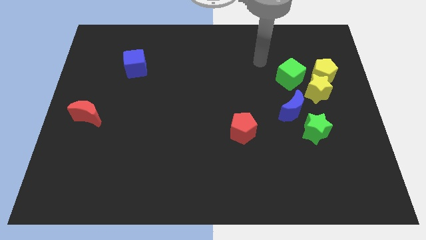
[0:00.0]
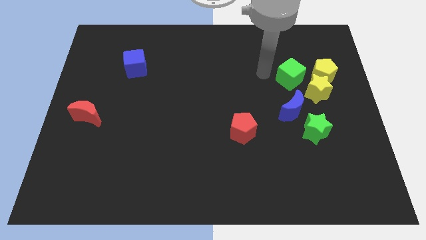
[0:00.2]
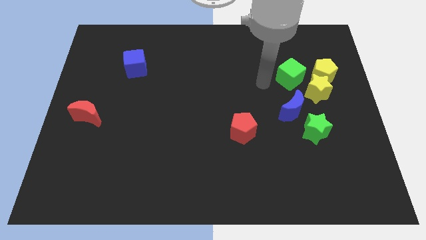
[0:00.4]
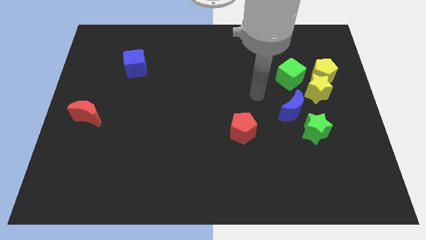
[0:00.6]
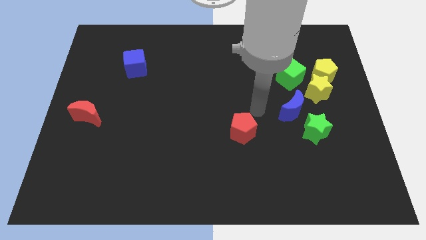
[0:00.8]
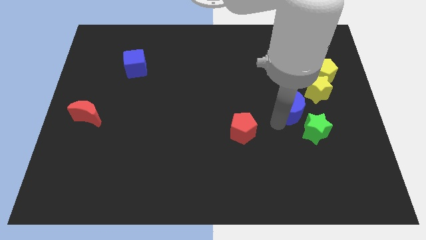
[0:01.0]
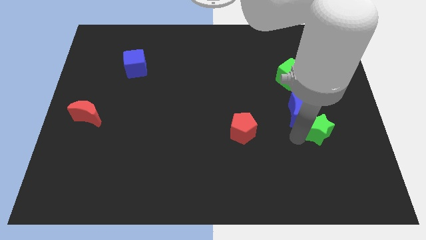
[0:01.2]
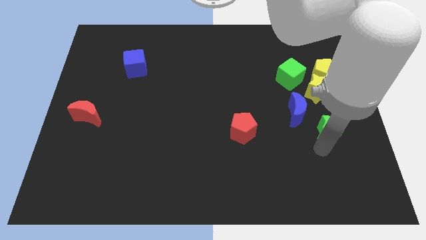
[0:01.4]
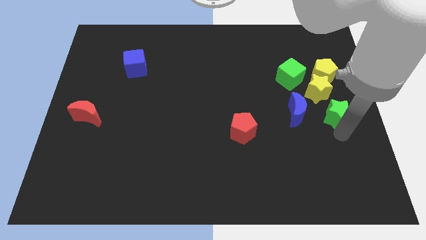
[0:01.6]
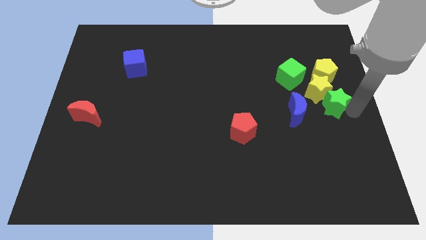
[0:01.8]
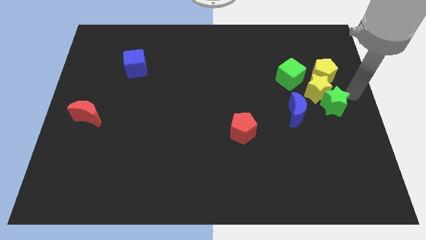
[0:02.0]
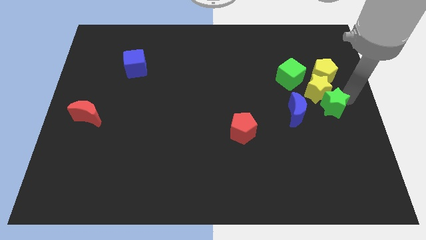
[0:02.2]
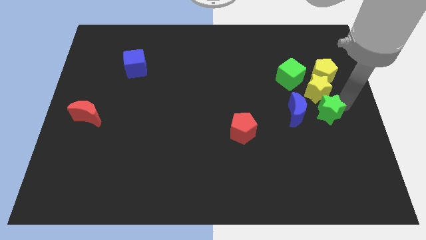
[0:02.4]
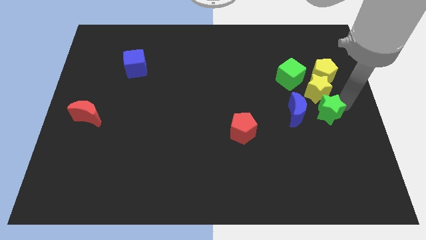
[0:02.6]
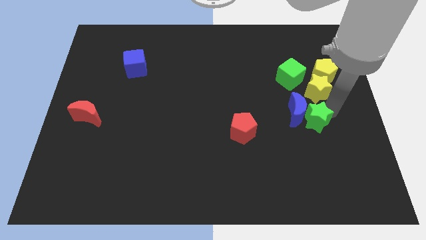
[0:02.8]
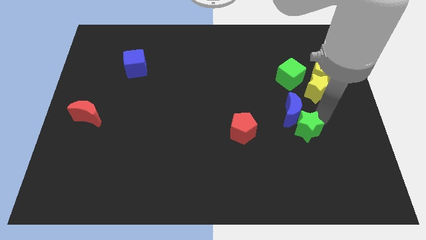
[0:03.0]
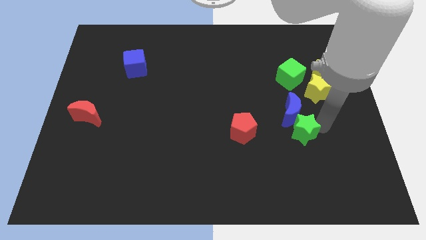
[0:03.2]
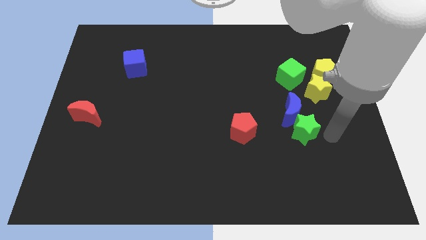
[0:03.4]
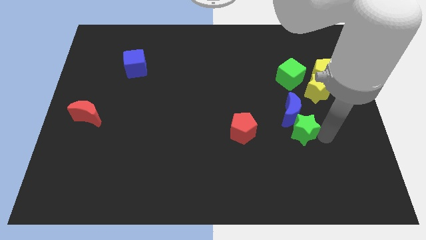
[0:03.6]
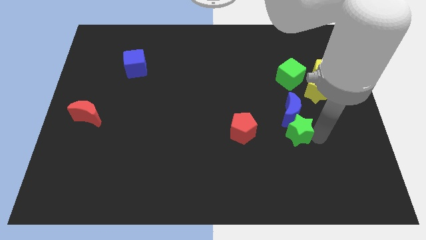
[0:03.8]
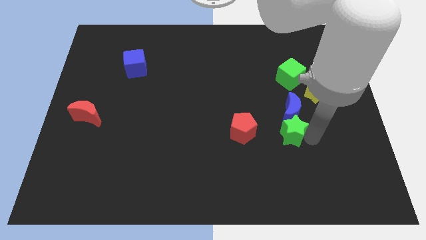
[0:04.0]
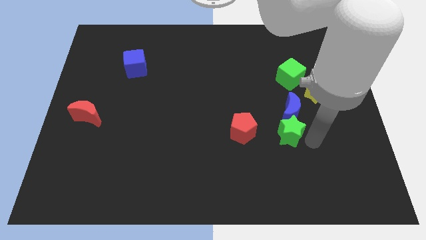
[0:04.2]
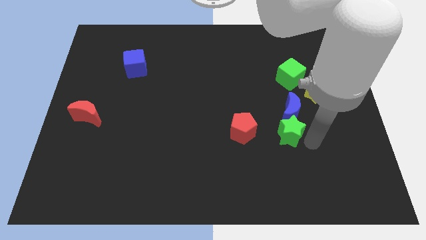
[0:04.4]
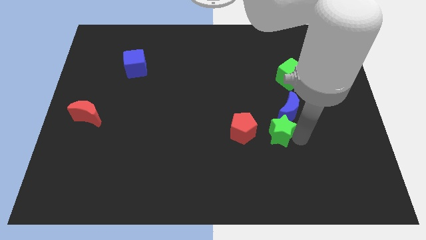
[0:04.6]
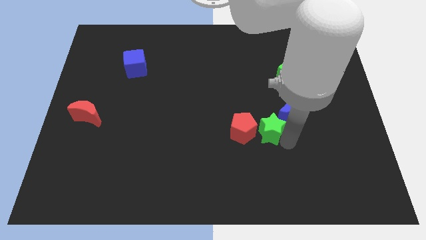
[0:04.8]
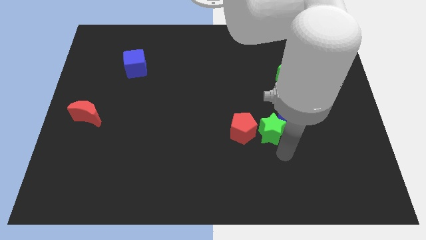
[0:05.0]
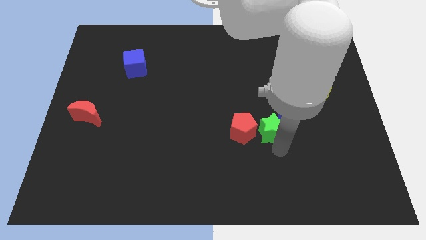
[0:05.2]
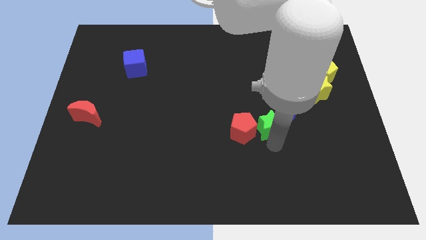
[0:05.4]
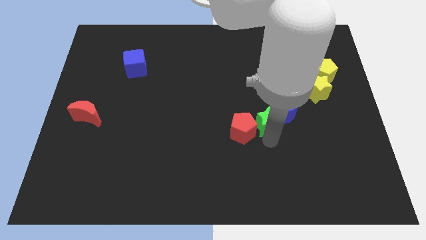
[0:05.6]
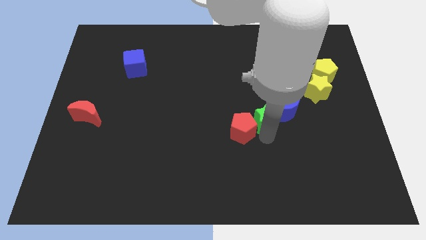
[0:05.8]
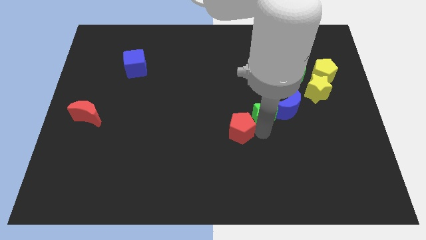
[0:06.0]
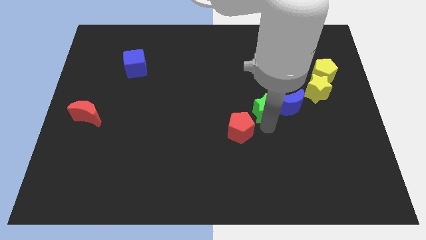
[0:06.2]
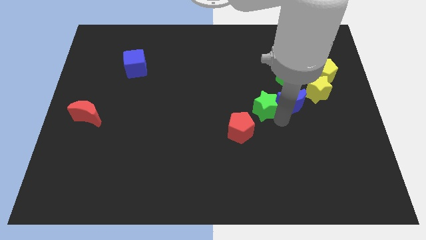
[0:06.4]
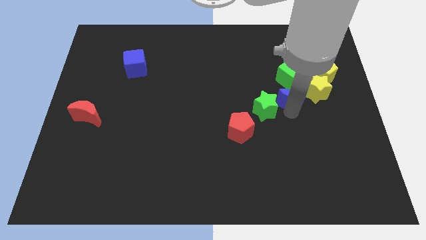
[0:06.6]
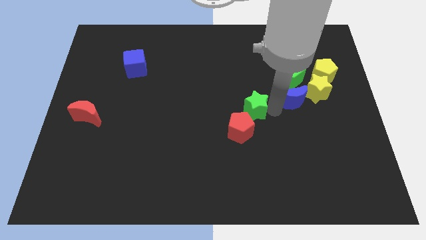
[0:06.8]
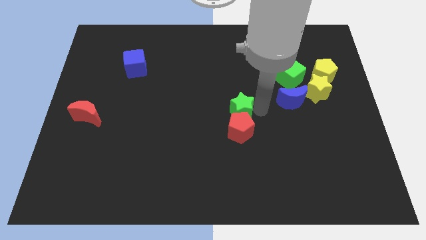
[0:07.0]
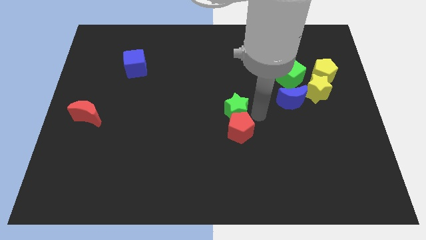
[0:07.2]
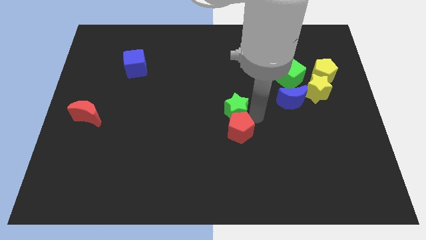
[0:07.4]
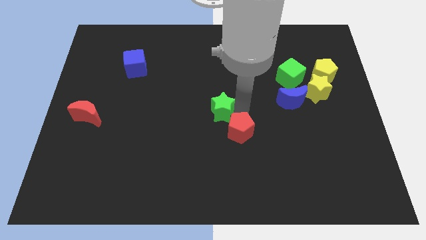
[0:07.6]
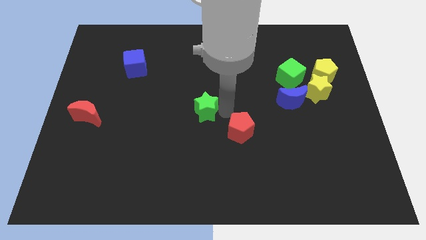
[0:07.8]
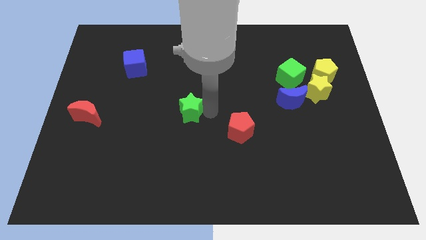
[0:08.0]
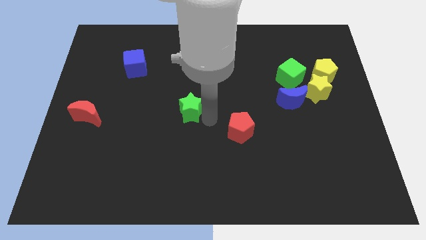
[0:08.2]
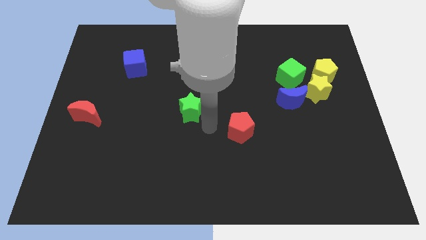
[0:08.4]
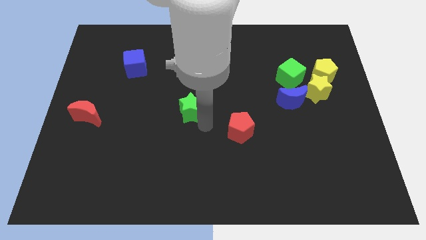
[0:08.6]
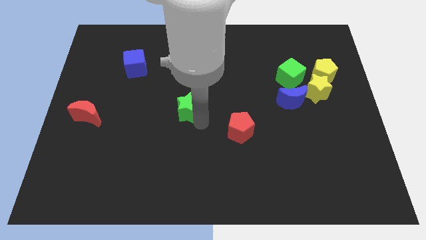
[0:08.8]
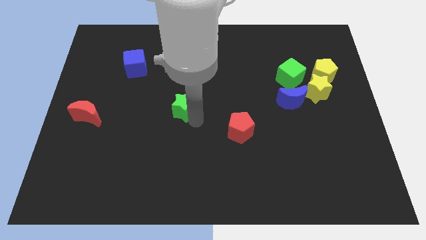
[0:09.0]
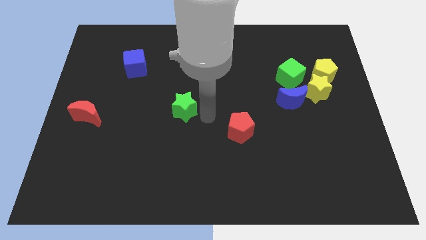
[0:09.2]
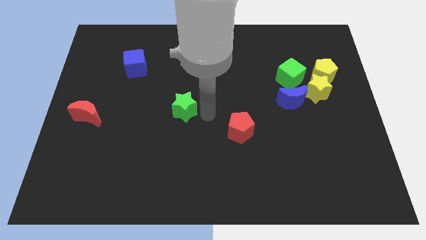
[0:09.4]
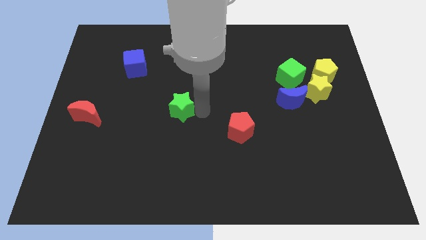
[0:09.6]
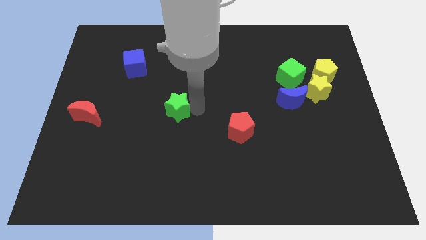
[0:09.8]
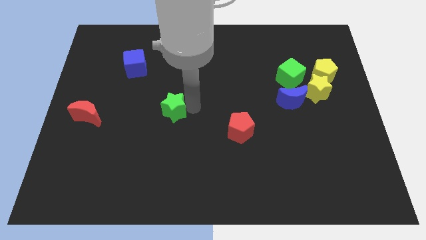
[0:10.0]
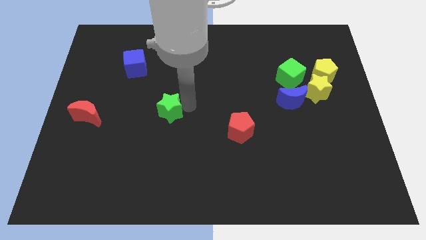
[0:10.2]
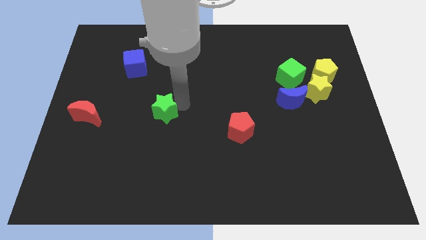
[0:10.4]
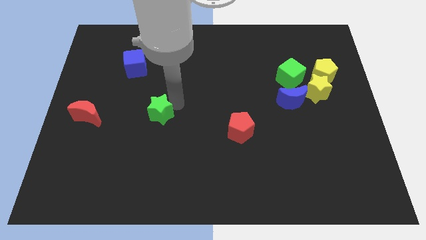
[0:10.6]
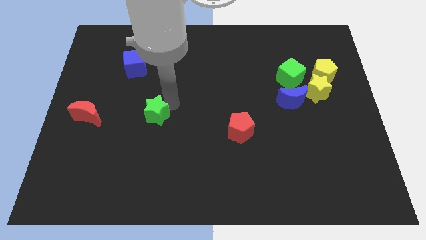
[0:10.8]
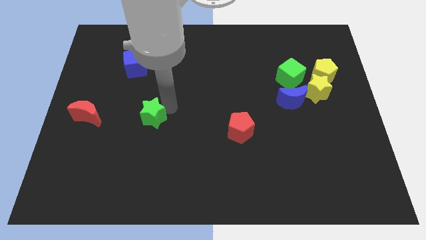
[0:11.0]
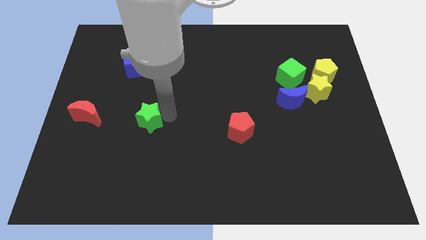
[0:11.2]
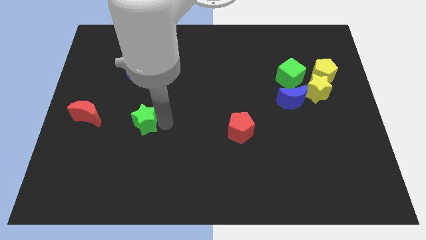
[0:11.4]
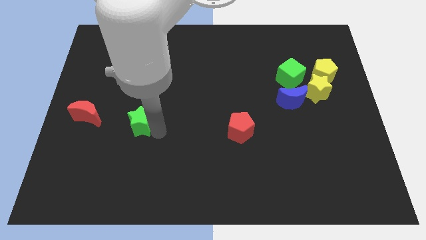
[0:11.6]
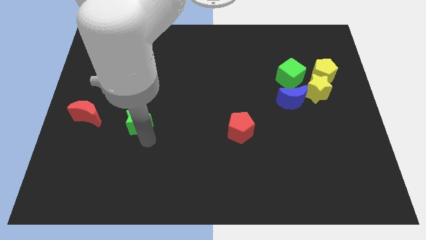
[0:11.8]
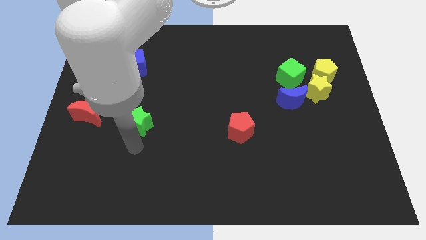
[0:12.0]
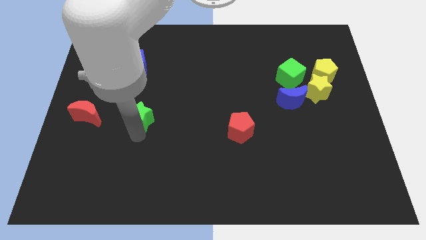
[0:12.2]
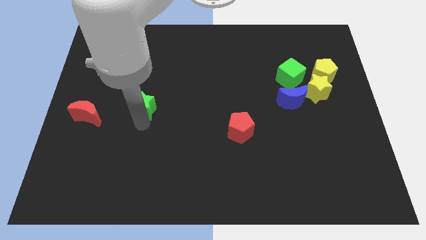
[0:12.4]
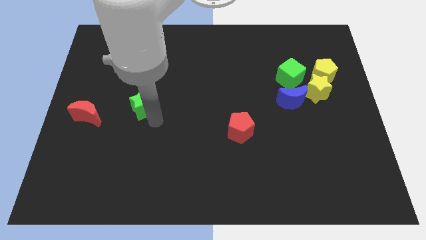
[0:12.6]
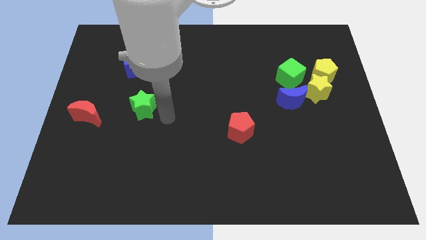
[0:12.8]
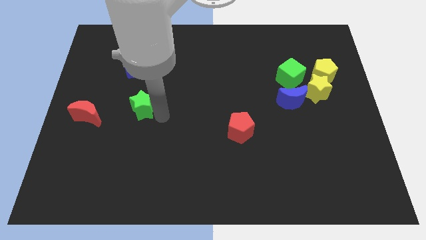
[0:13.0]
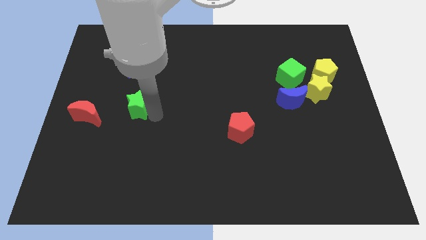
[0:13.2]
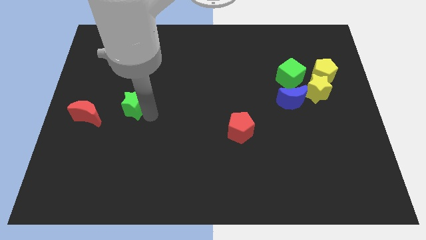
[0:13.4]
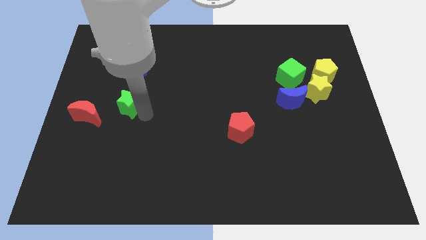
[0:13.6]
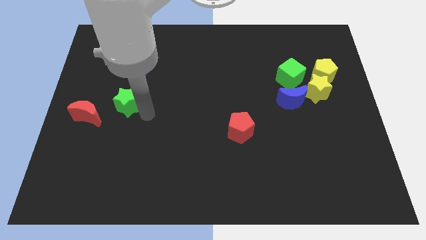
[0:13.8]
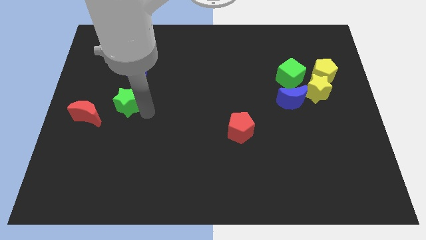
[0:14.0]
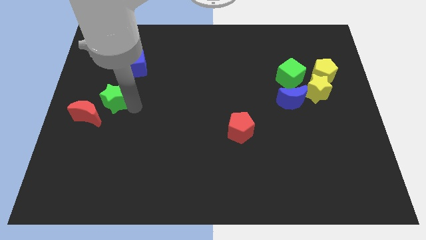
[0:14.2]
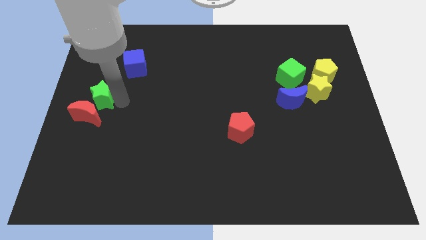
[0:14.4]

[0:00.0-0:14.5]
slide the green star to the left side
